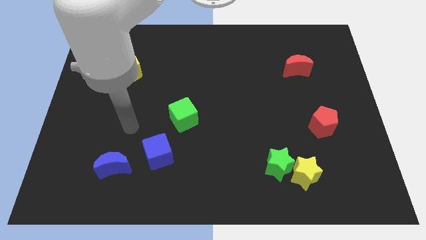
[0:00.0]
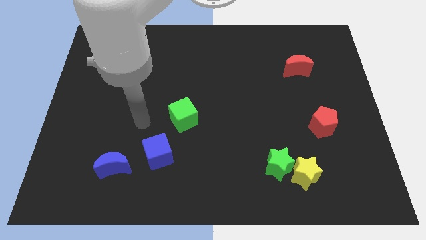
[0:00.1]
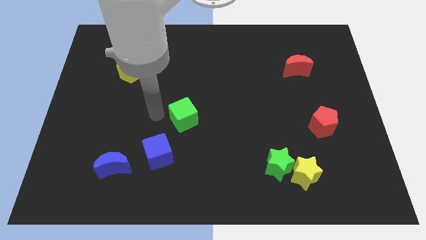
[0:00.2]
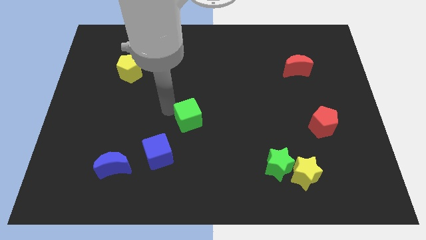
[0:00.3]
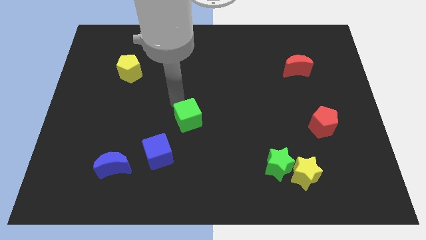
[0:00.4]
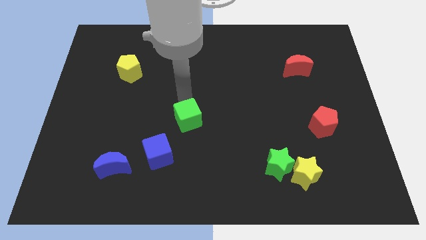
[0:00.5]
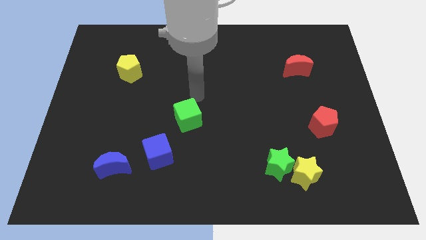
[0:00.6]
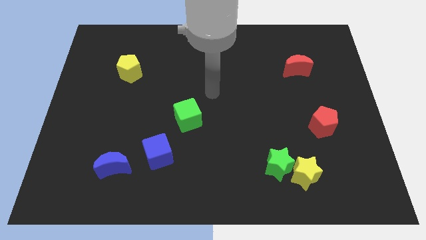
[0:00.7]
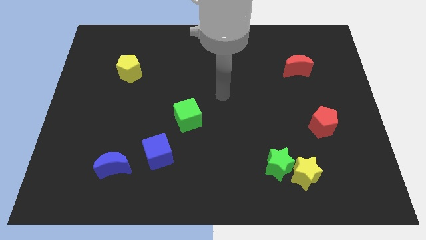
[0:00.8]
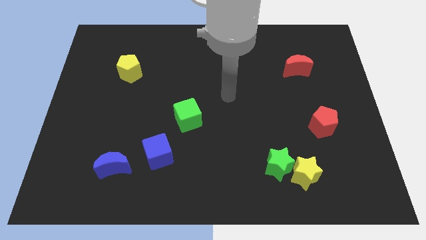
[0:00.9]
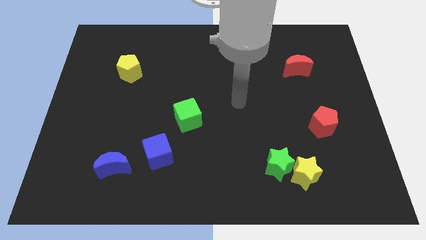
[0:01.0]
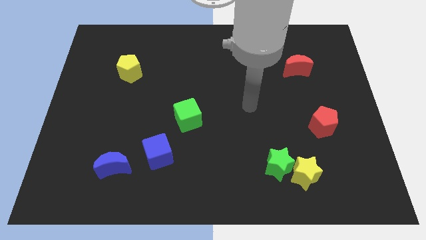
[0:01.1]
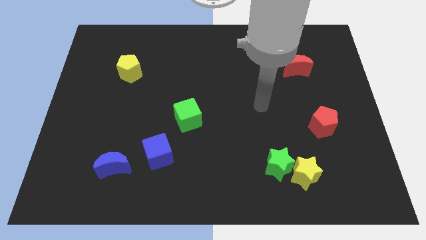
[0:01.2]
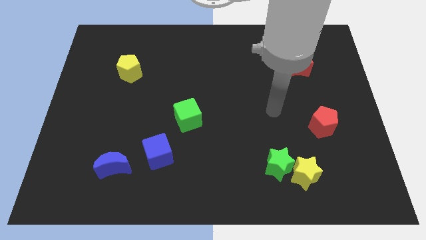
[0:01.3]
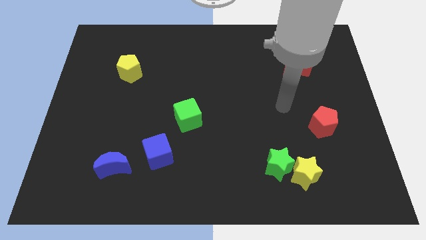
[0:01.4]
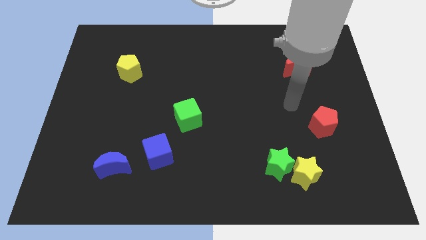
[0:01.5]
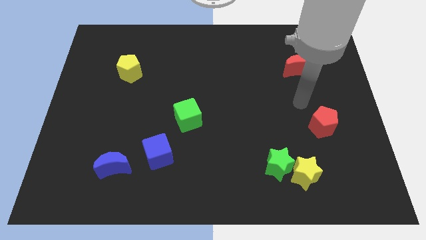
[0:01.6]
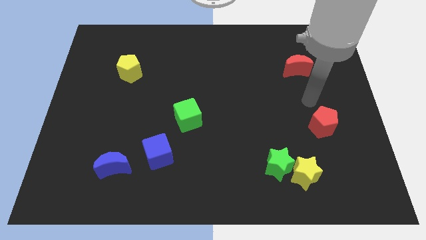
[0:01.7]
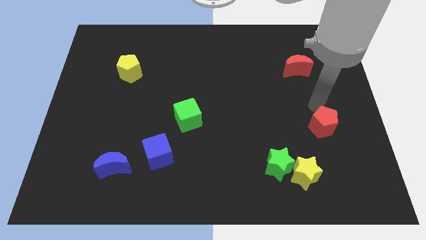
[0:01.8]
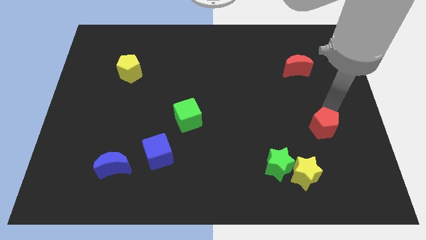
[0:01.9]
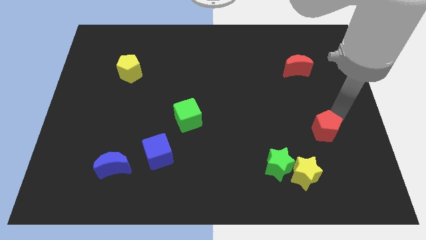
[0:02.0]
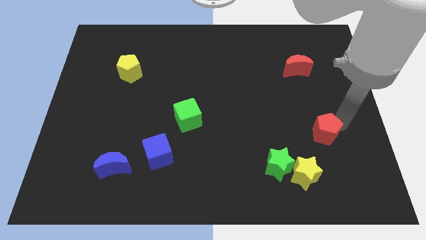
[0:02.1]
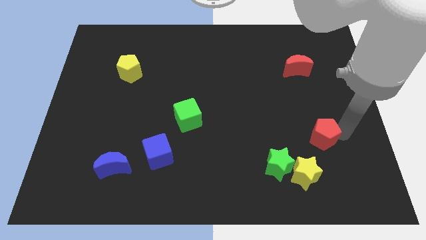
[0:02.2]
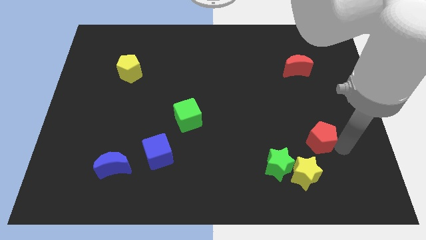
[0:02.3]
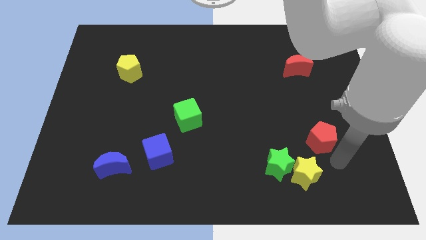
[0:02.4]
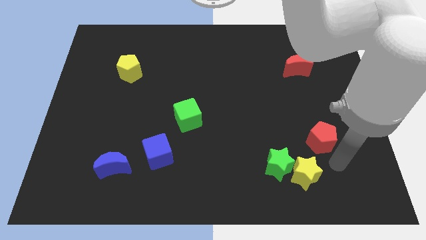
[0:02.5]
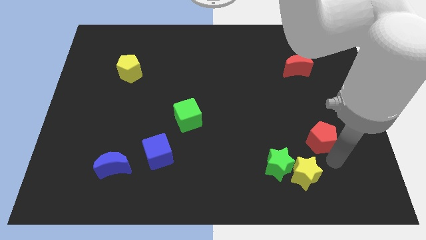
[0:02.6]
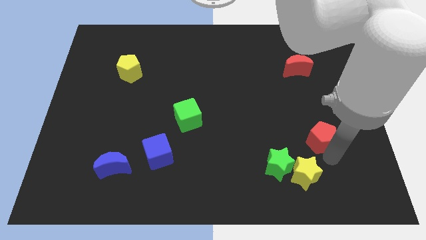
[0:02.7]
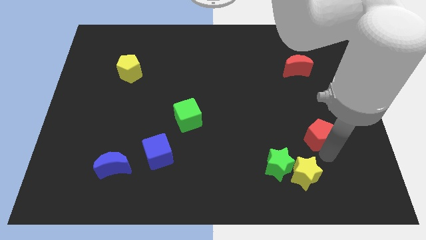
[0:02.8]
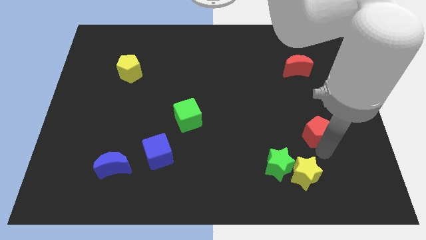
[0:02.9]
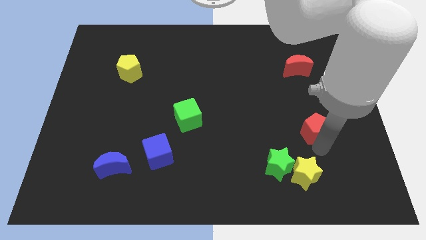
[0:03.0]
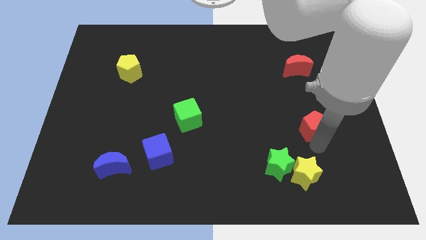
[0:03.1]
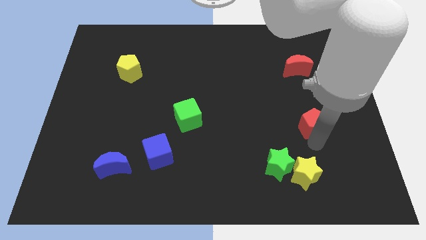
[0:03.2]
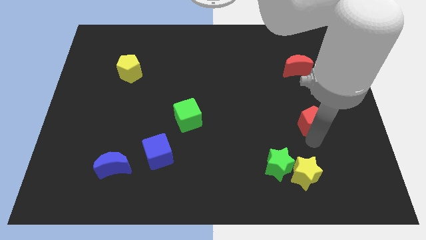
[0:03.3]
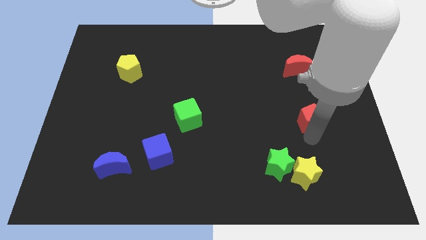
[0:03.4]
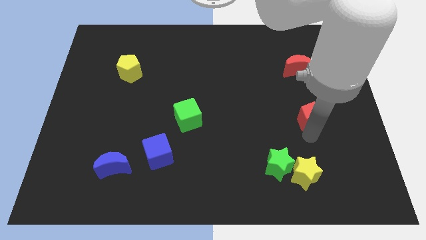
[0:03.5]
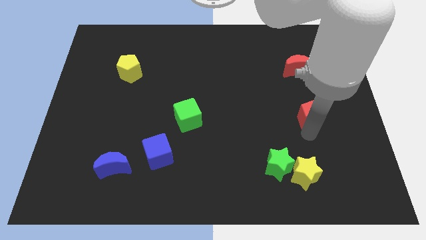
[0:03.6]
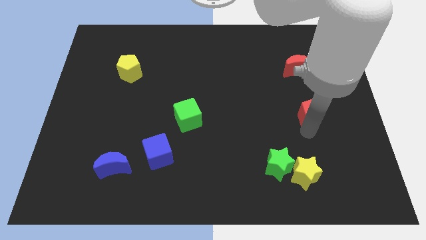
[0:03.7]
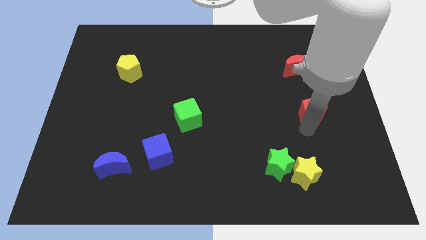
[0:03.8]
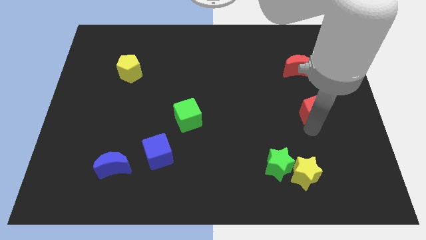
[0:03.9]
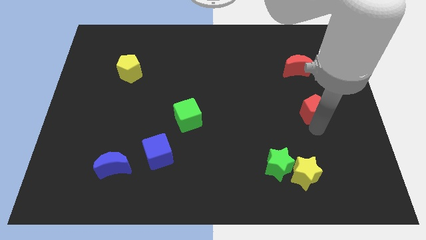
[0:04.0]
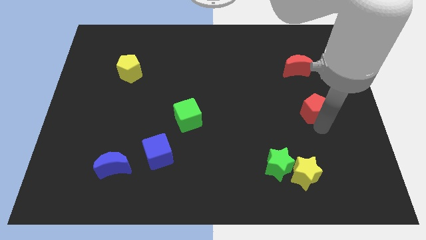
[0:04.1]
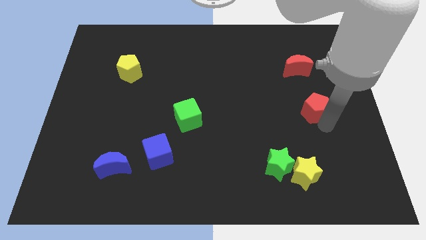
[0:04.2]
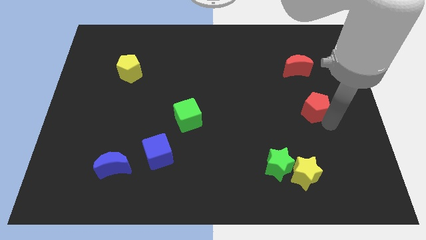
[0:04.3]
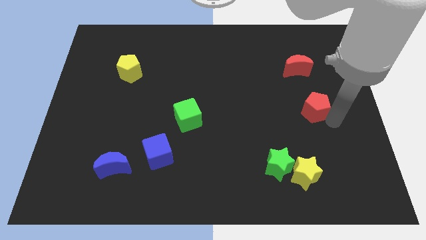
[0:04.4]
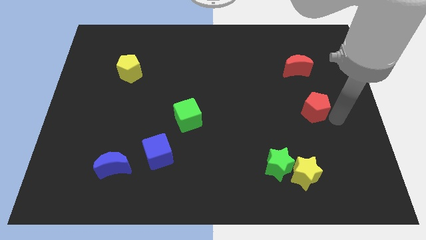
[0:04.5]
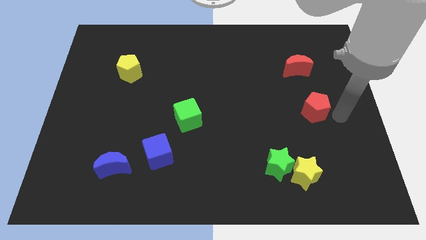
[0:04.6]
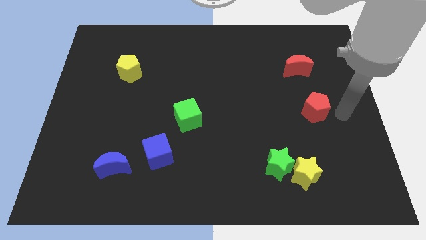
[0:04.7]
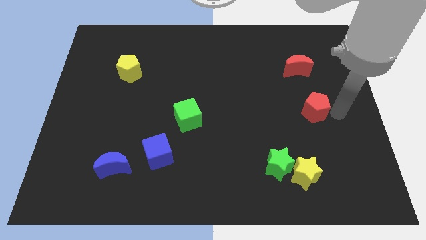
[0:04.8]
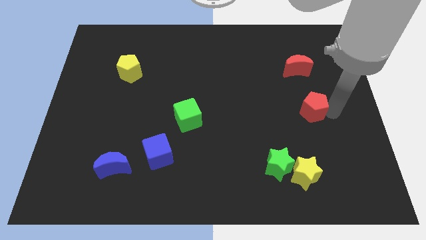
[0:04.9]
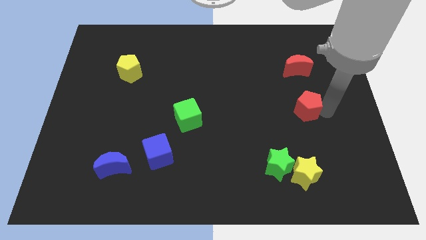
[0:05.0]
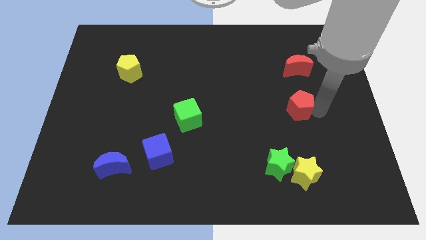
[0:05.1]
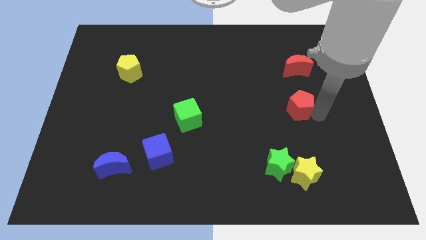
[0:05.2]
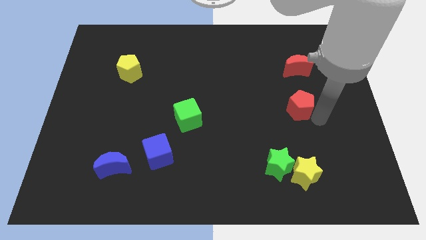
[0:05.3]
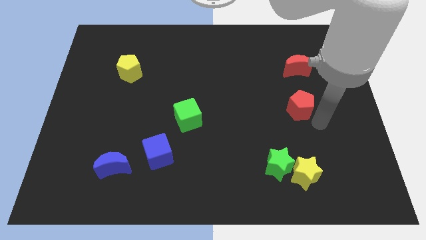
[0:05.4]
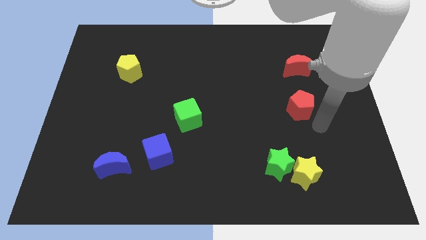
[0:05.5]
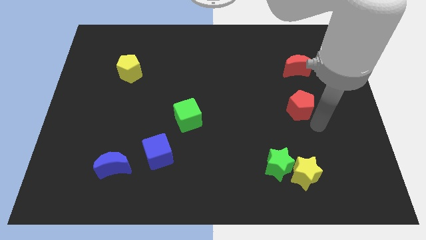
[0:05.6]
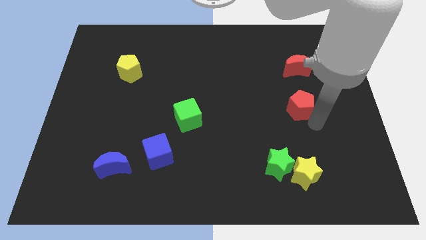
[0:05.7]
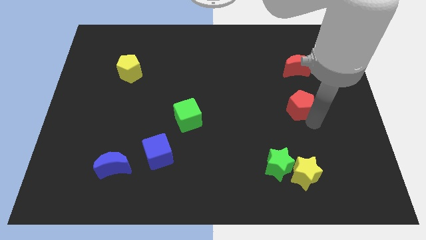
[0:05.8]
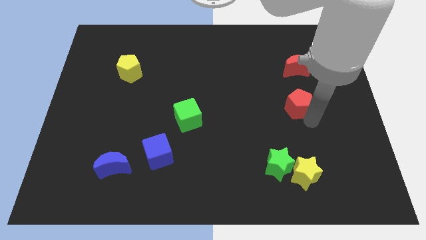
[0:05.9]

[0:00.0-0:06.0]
slightly move the red pentagon upwards and to the left

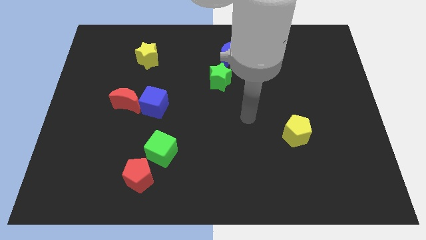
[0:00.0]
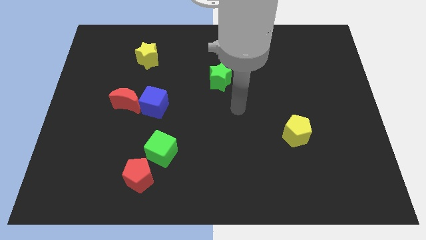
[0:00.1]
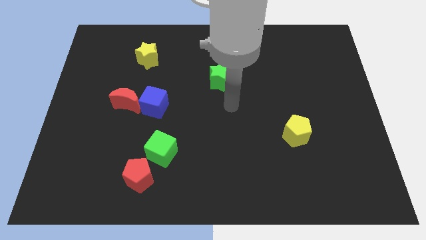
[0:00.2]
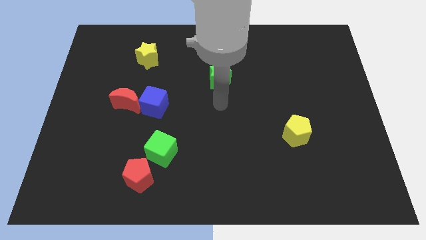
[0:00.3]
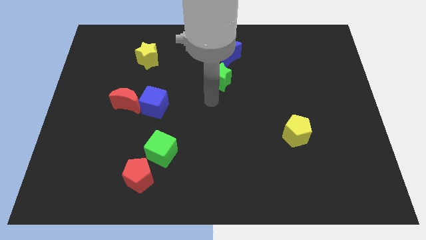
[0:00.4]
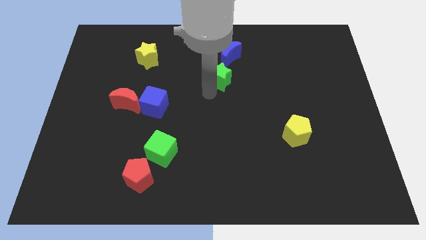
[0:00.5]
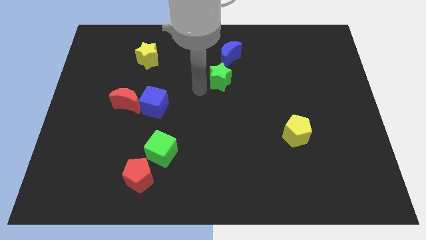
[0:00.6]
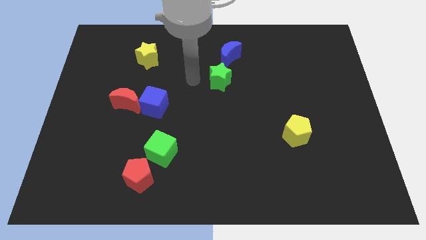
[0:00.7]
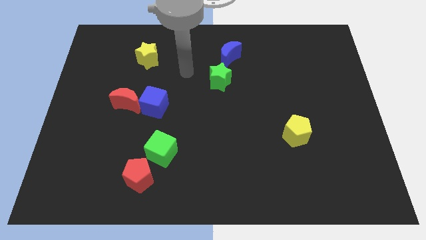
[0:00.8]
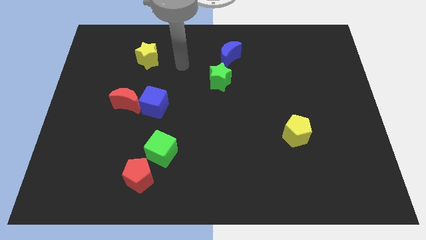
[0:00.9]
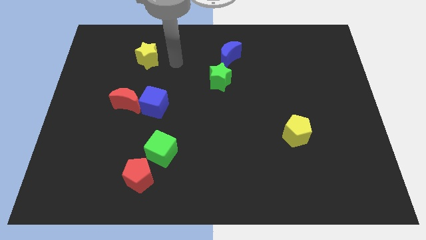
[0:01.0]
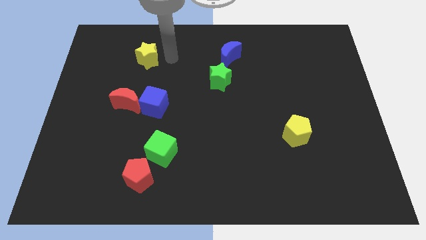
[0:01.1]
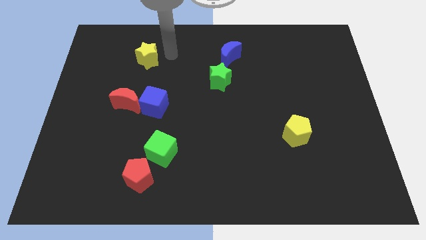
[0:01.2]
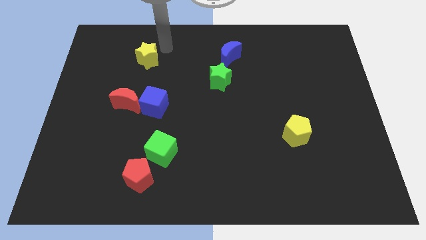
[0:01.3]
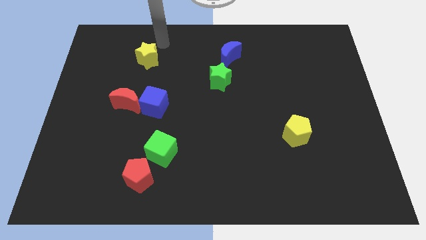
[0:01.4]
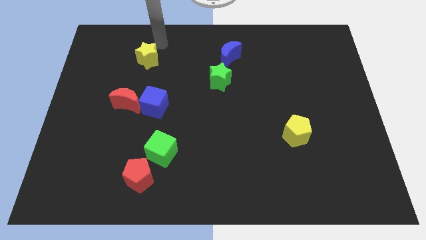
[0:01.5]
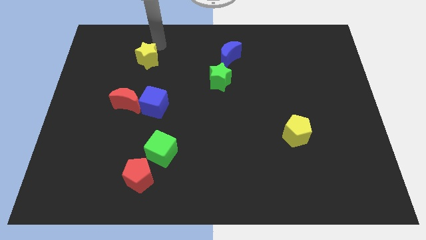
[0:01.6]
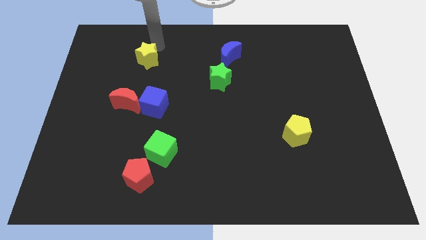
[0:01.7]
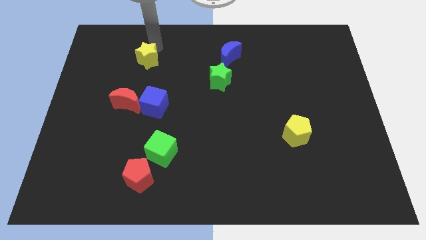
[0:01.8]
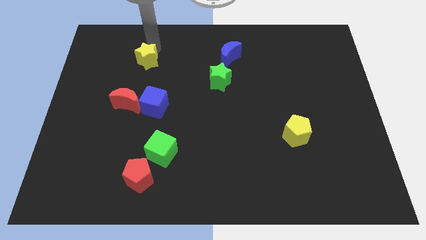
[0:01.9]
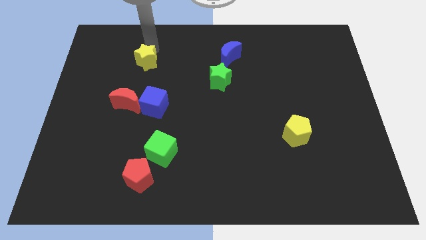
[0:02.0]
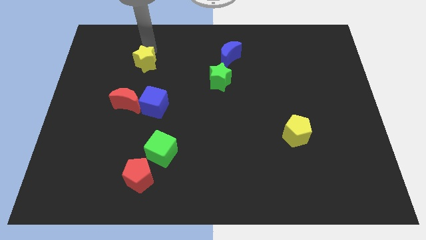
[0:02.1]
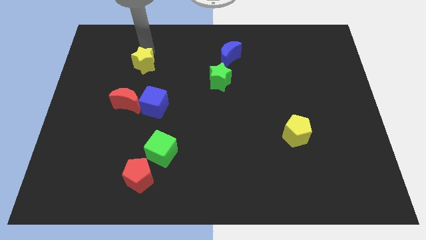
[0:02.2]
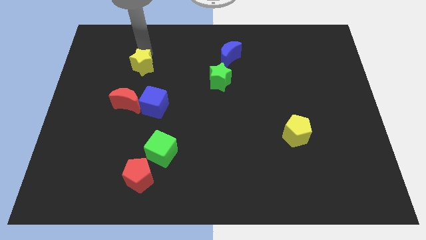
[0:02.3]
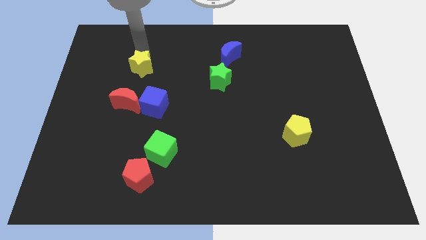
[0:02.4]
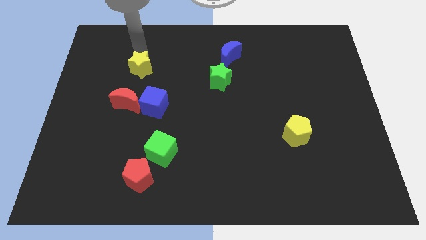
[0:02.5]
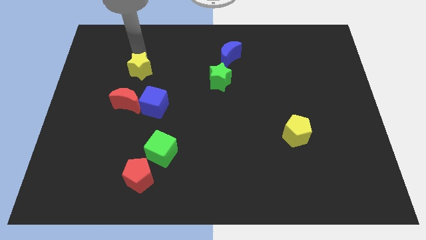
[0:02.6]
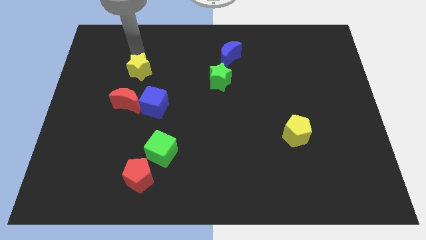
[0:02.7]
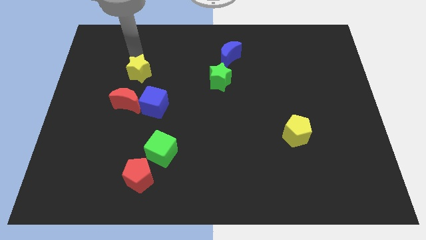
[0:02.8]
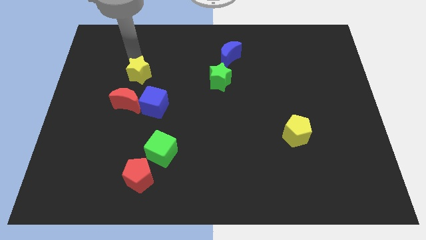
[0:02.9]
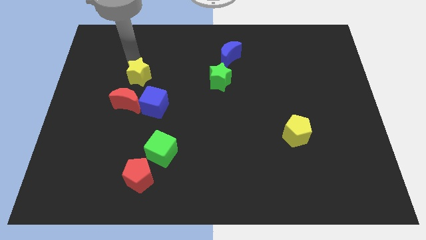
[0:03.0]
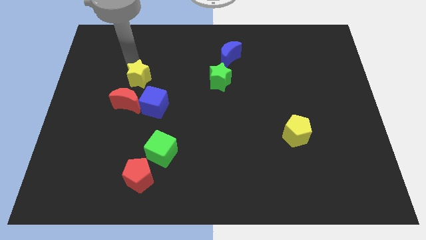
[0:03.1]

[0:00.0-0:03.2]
slightly move the yellow star down
